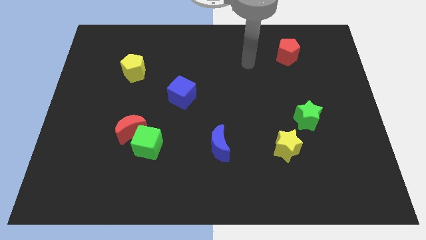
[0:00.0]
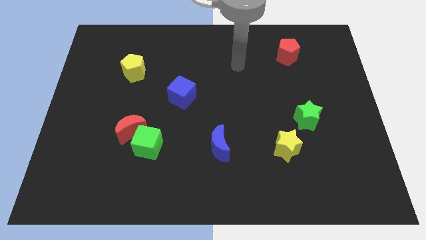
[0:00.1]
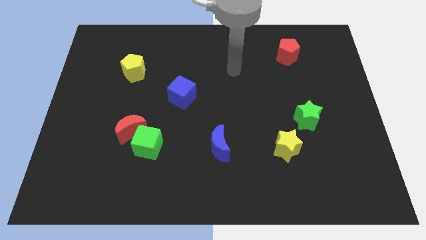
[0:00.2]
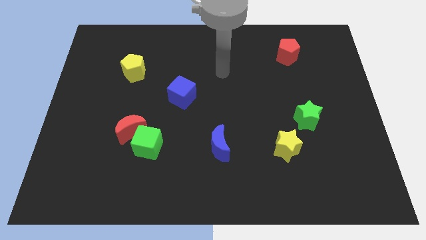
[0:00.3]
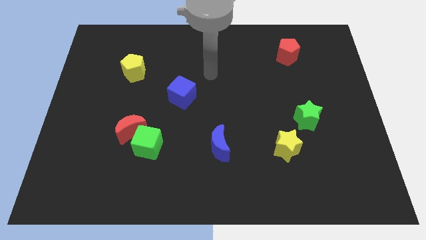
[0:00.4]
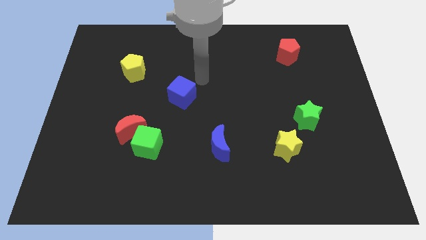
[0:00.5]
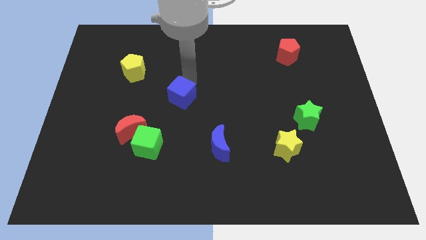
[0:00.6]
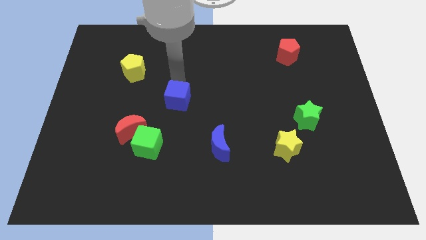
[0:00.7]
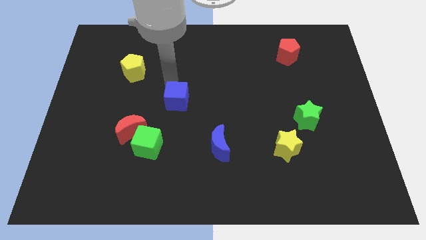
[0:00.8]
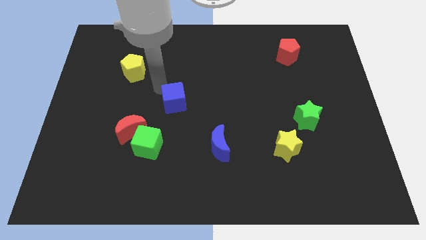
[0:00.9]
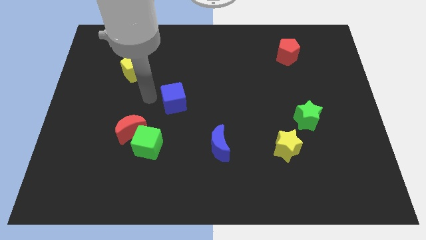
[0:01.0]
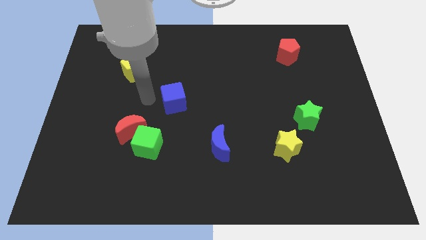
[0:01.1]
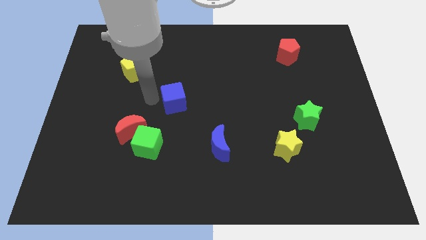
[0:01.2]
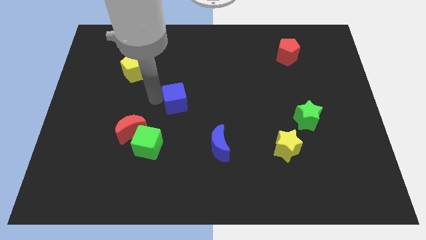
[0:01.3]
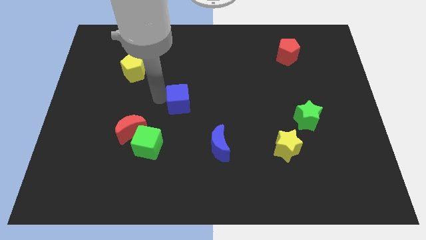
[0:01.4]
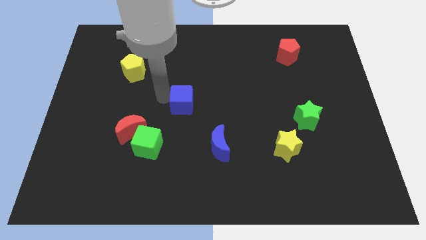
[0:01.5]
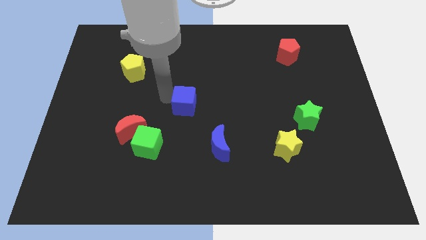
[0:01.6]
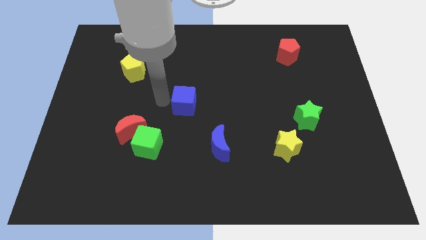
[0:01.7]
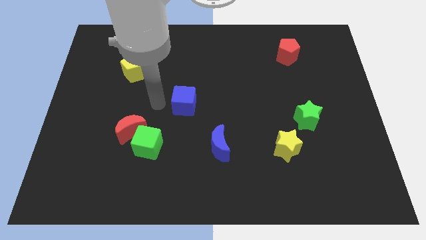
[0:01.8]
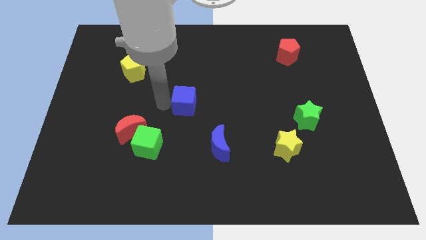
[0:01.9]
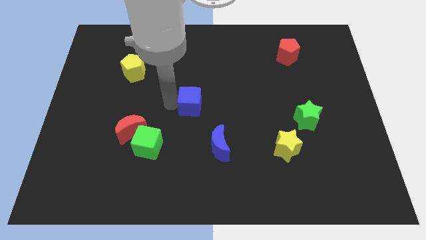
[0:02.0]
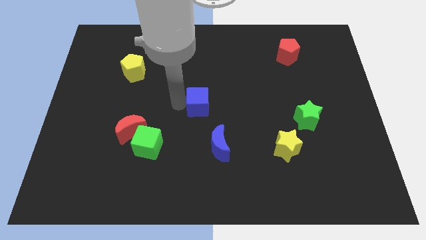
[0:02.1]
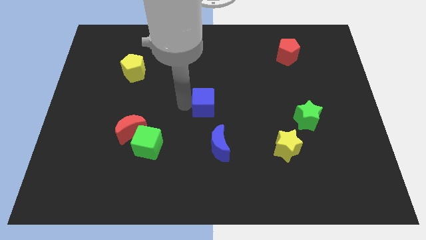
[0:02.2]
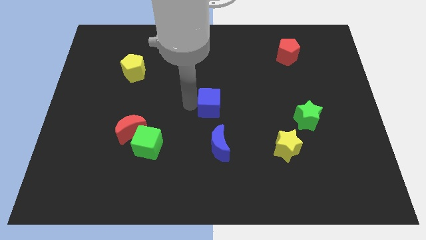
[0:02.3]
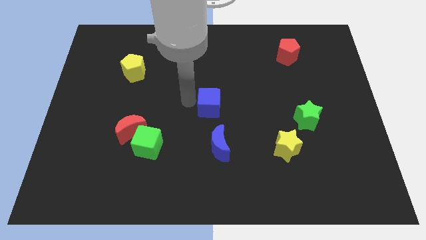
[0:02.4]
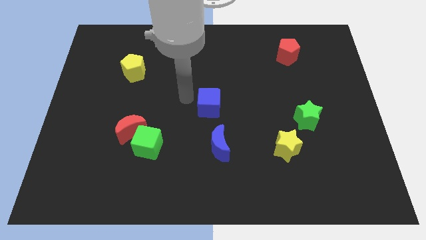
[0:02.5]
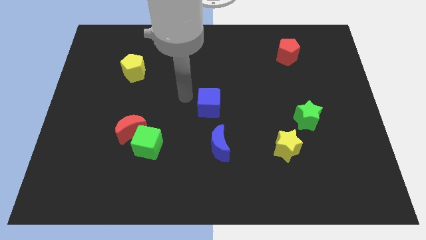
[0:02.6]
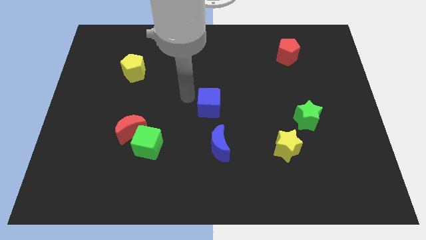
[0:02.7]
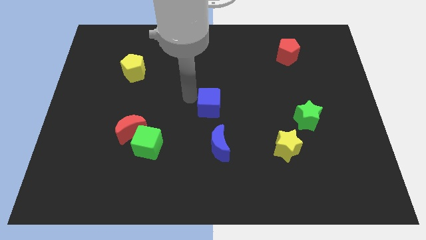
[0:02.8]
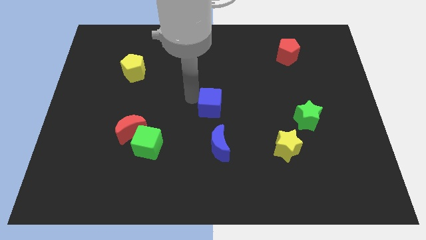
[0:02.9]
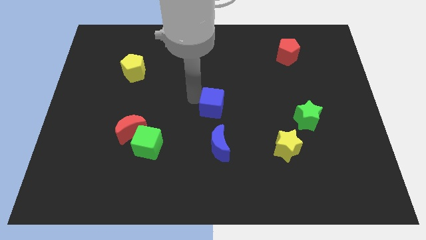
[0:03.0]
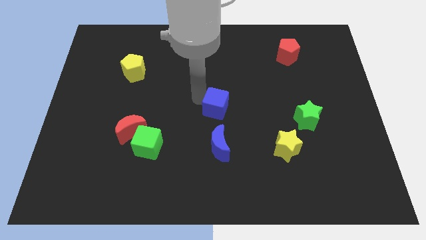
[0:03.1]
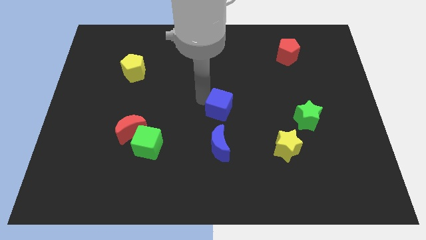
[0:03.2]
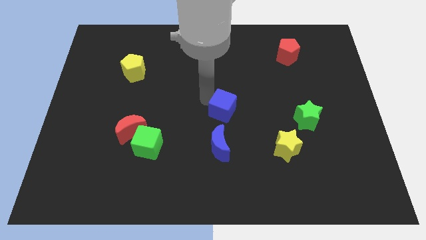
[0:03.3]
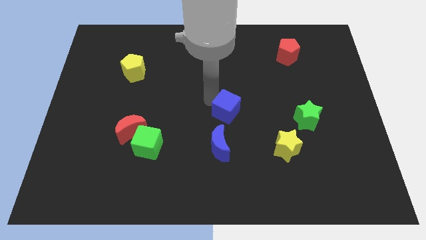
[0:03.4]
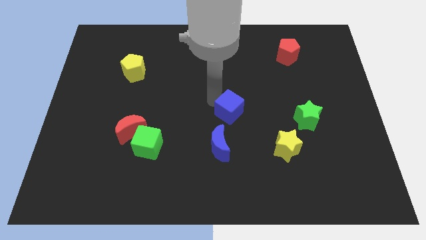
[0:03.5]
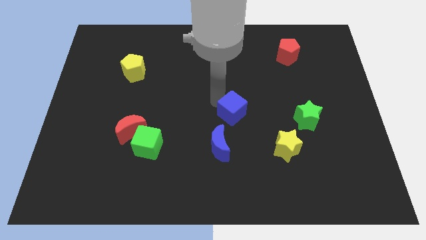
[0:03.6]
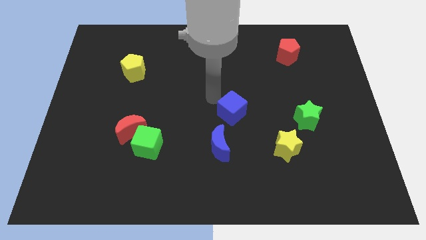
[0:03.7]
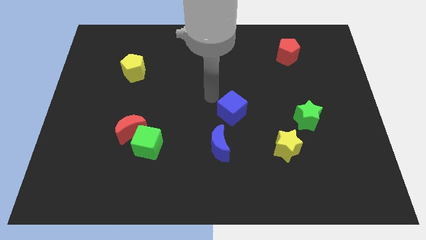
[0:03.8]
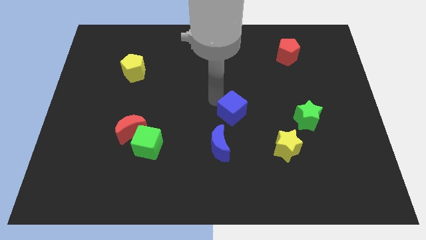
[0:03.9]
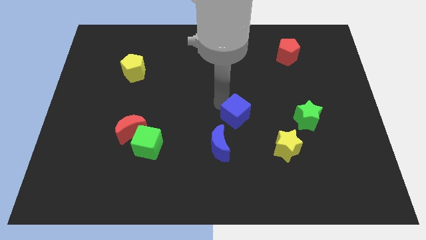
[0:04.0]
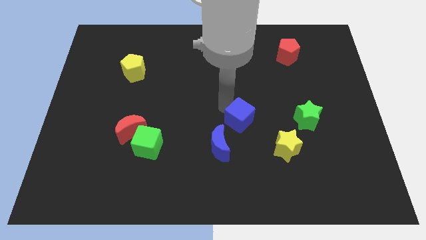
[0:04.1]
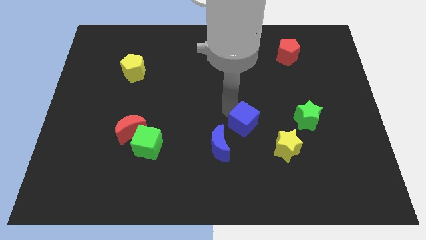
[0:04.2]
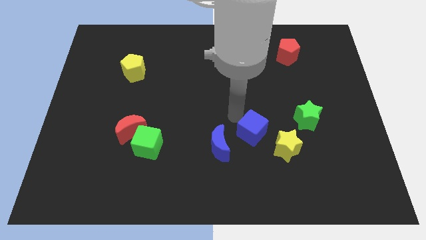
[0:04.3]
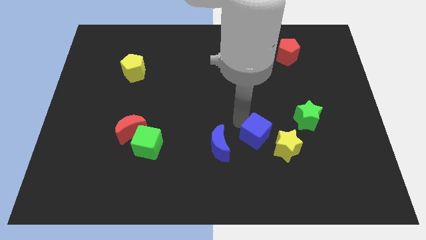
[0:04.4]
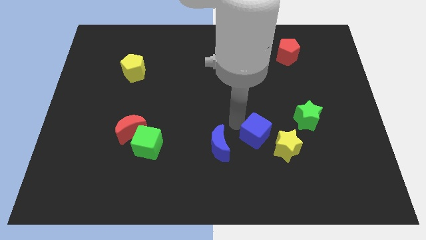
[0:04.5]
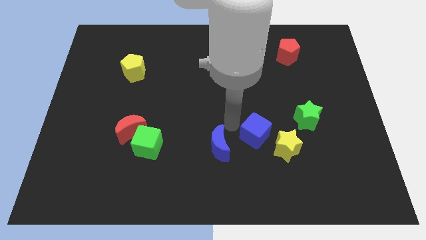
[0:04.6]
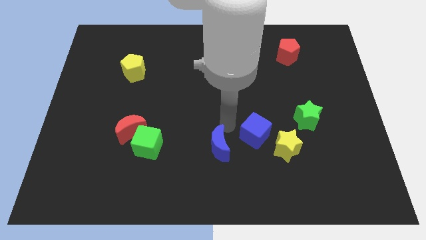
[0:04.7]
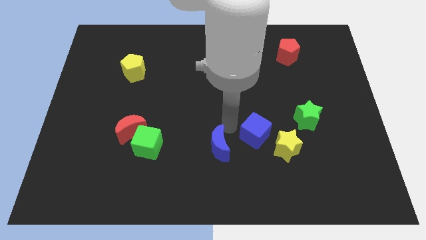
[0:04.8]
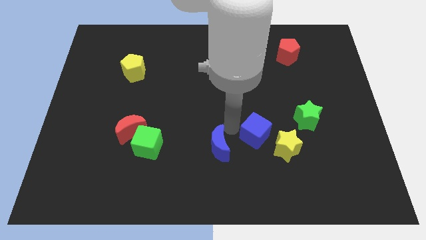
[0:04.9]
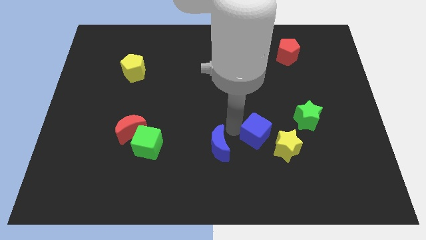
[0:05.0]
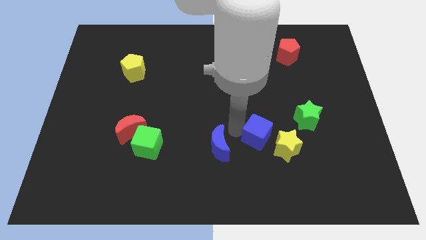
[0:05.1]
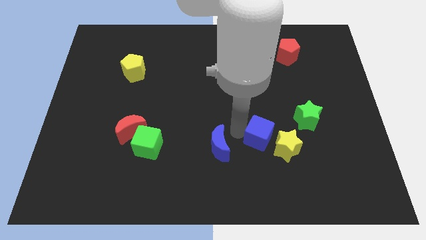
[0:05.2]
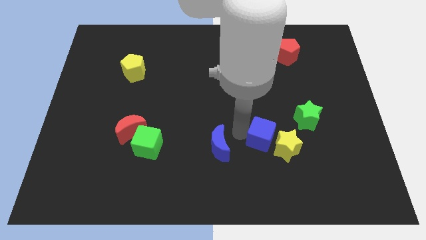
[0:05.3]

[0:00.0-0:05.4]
push the blue cube close to the yellow star

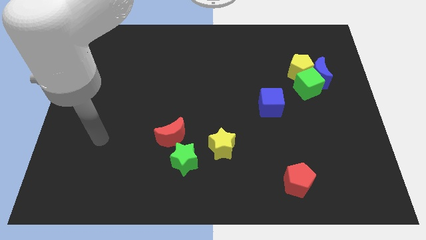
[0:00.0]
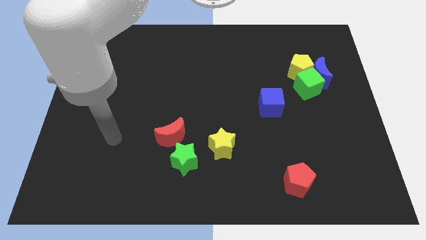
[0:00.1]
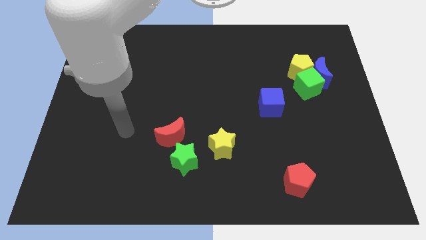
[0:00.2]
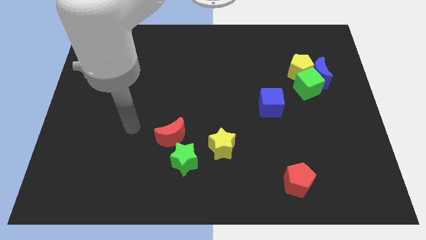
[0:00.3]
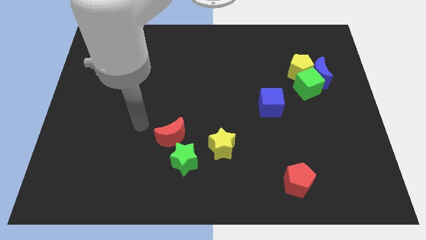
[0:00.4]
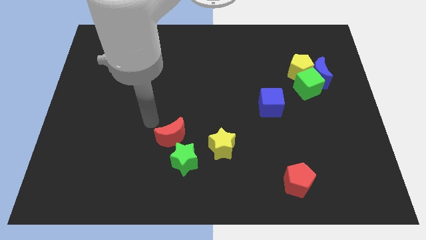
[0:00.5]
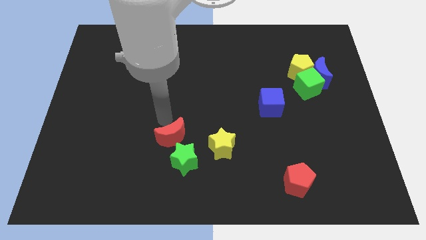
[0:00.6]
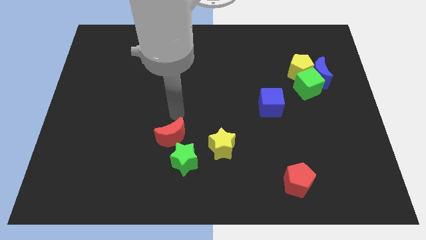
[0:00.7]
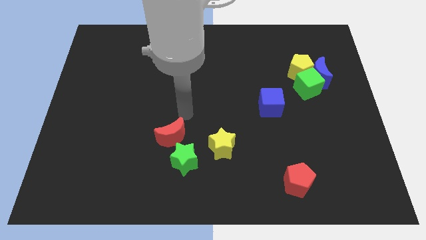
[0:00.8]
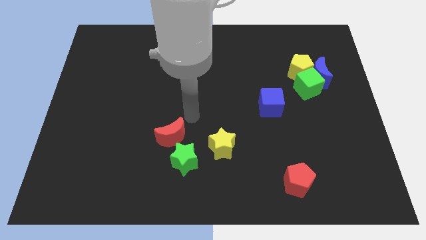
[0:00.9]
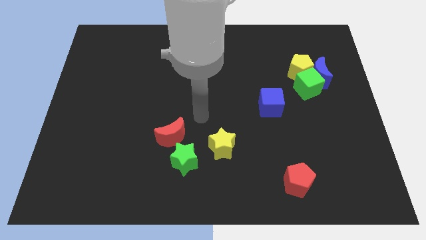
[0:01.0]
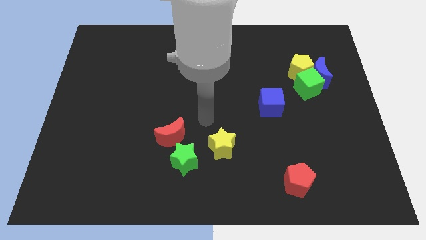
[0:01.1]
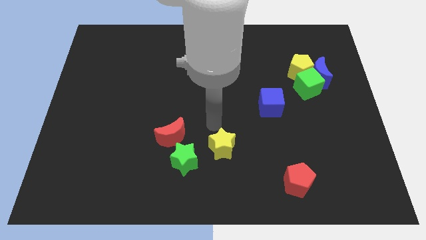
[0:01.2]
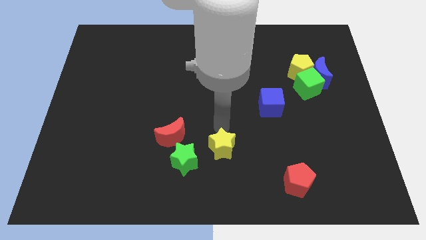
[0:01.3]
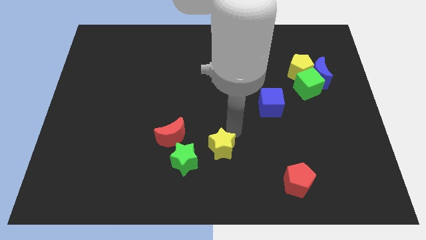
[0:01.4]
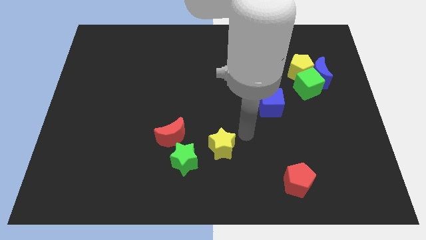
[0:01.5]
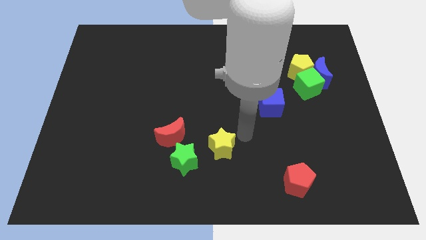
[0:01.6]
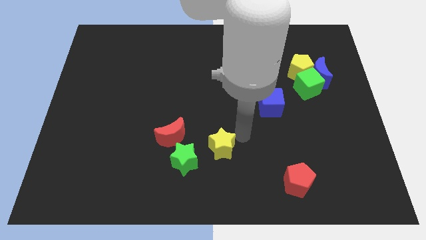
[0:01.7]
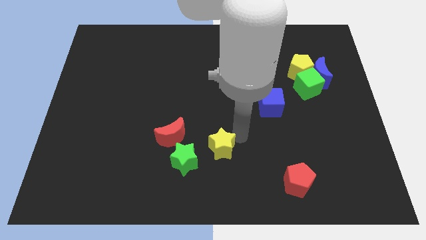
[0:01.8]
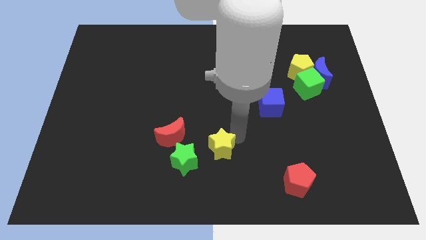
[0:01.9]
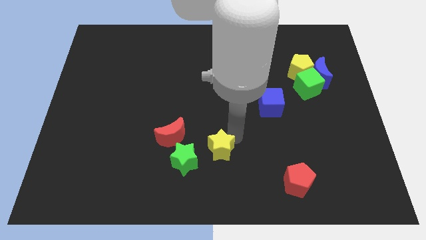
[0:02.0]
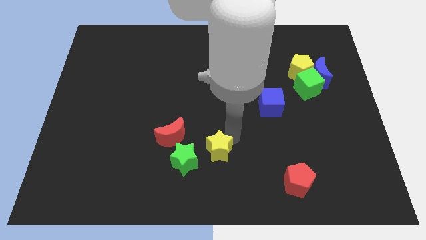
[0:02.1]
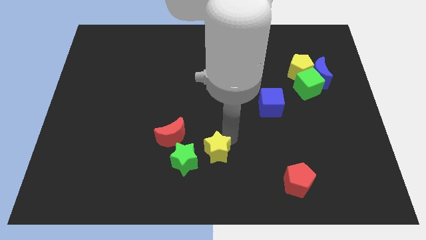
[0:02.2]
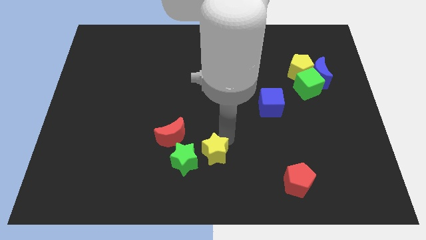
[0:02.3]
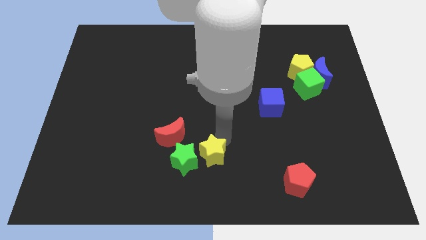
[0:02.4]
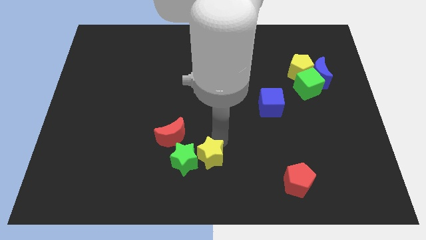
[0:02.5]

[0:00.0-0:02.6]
move the yellow star next to the green star

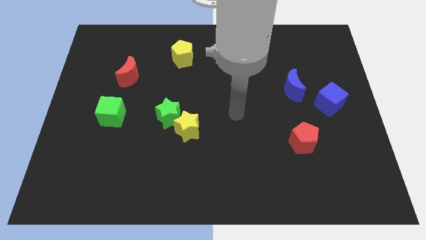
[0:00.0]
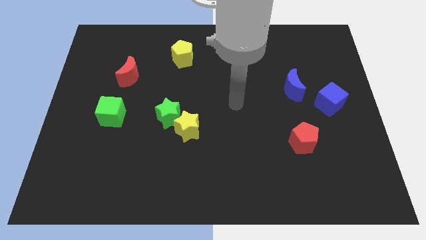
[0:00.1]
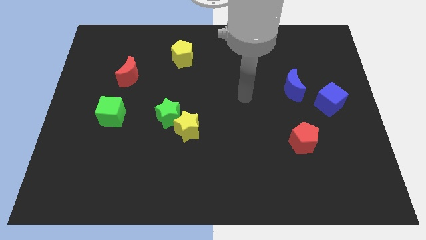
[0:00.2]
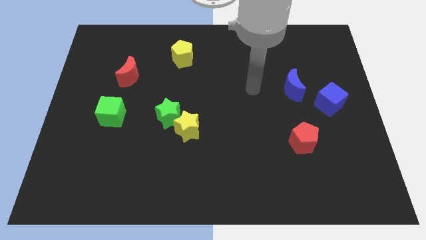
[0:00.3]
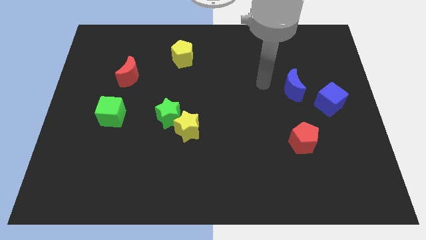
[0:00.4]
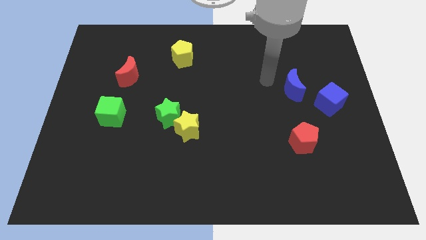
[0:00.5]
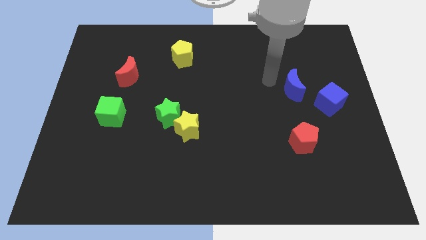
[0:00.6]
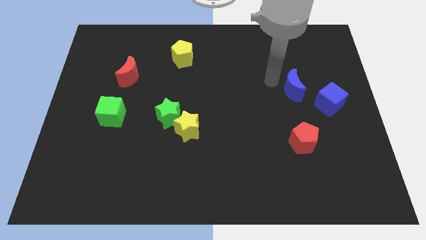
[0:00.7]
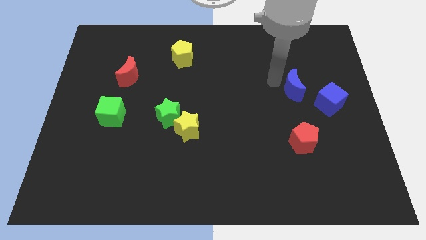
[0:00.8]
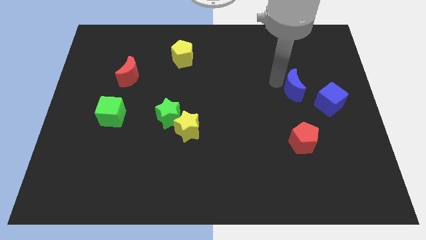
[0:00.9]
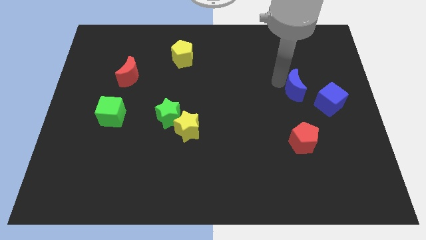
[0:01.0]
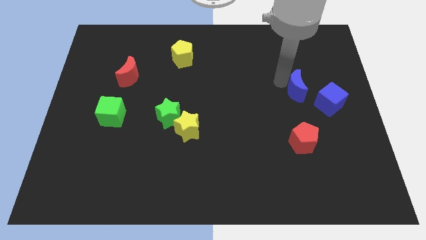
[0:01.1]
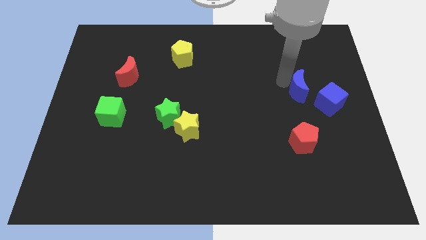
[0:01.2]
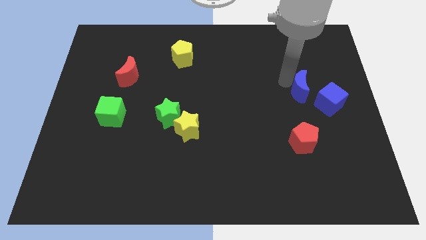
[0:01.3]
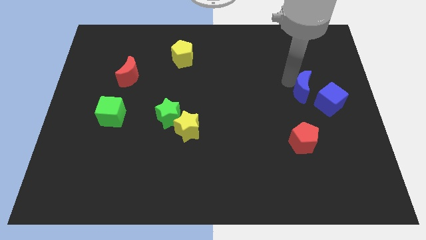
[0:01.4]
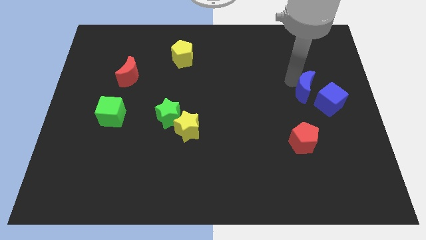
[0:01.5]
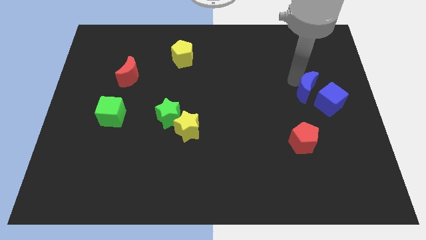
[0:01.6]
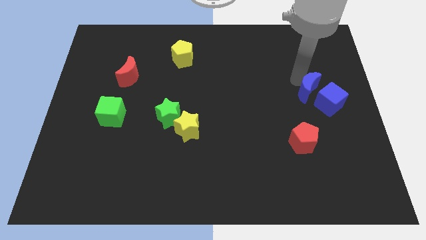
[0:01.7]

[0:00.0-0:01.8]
push the blue moon close to the blue cube
